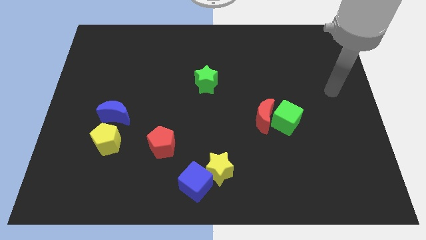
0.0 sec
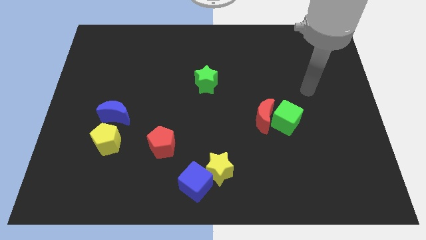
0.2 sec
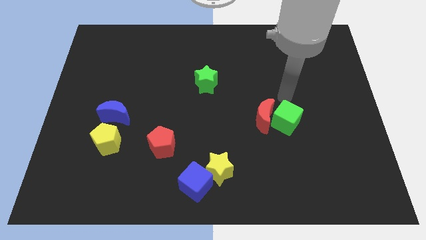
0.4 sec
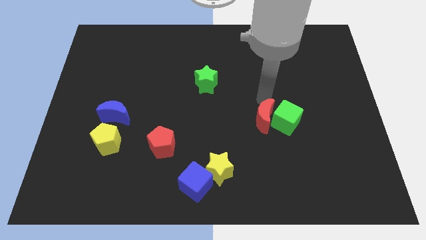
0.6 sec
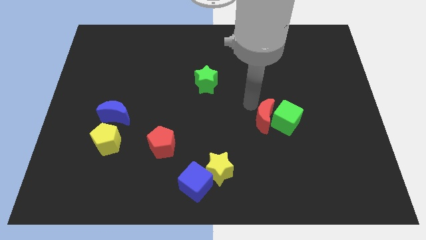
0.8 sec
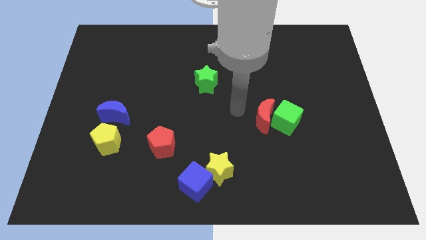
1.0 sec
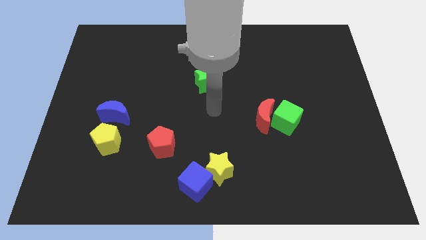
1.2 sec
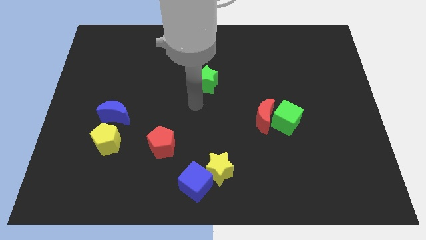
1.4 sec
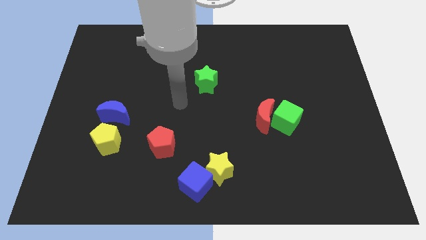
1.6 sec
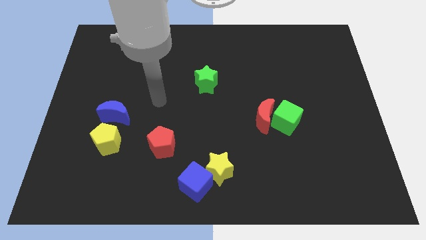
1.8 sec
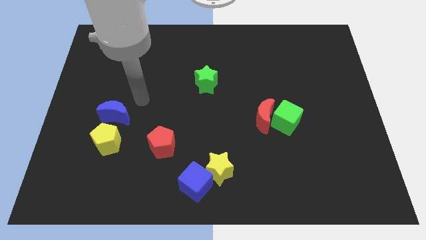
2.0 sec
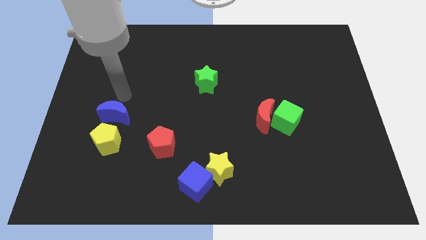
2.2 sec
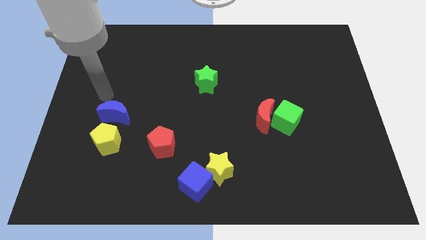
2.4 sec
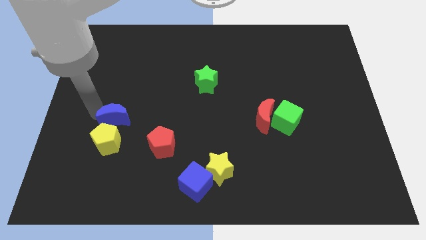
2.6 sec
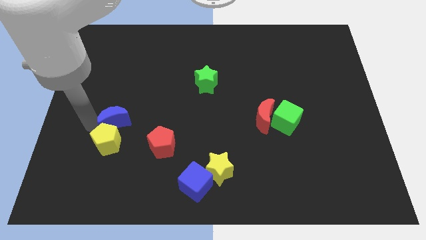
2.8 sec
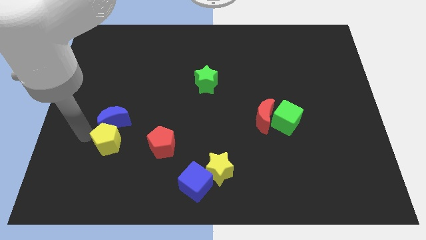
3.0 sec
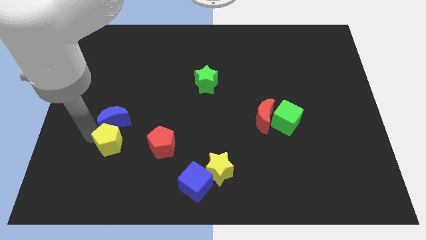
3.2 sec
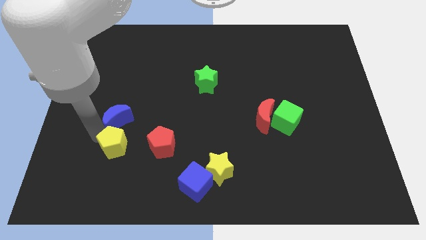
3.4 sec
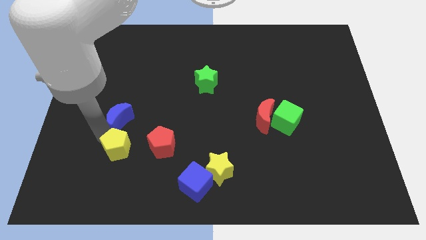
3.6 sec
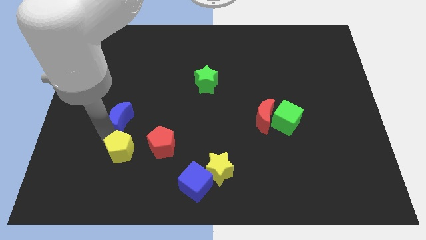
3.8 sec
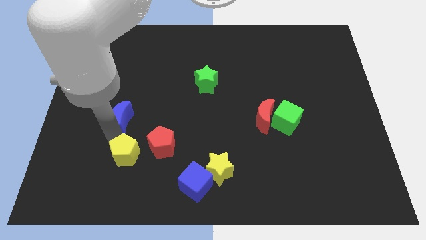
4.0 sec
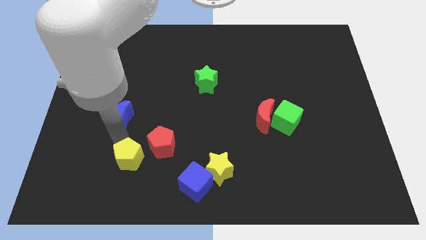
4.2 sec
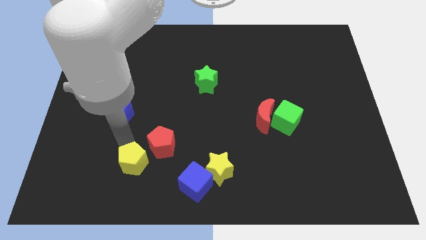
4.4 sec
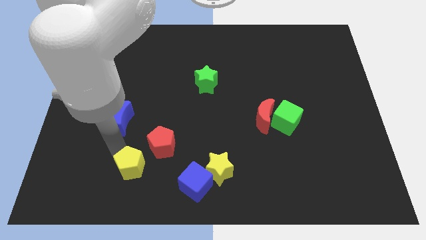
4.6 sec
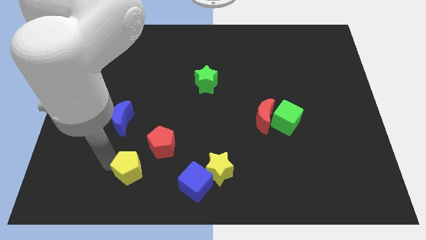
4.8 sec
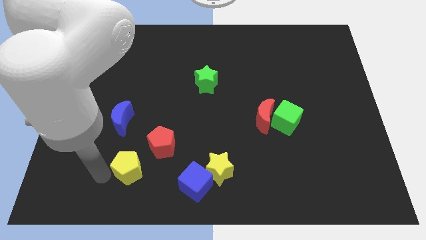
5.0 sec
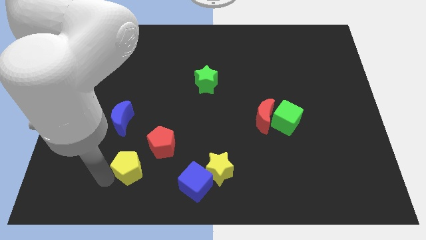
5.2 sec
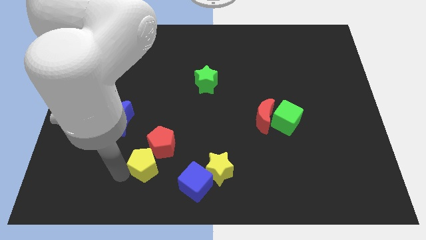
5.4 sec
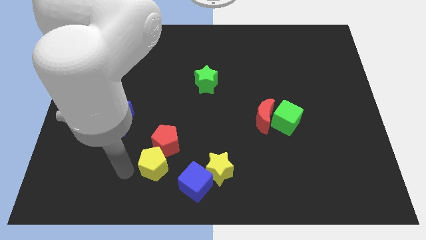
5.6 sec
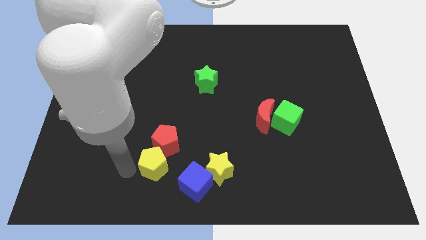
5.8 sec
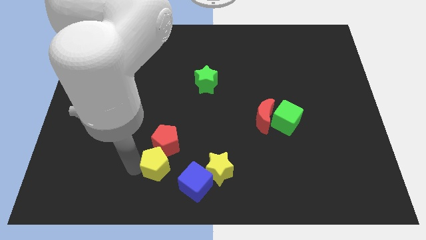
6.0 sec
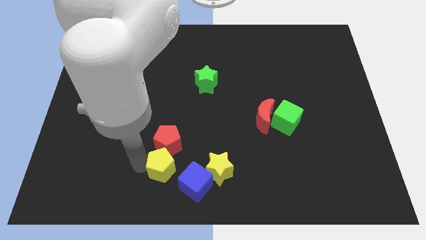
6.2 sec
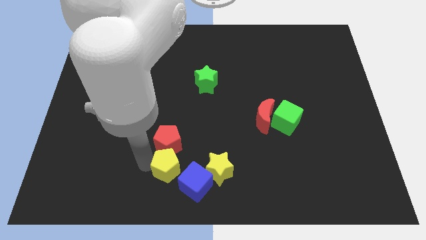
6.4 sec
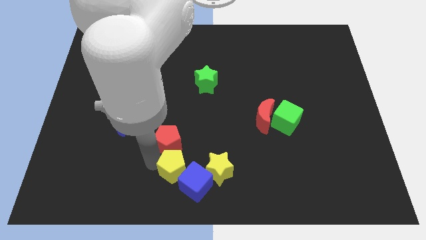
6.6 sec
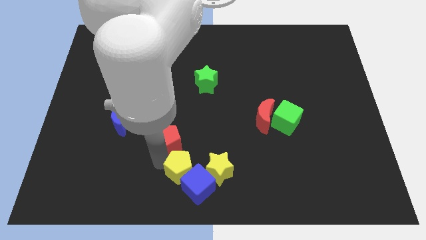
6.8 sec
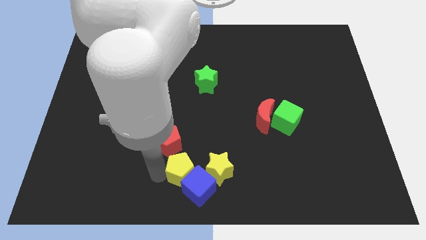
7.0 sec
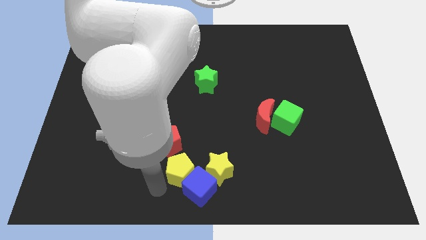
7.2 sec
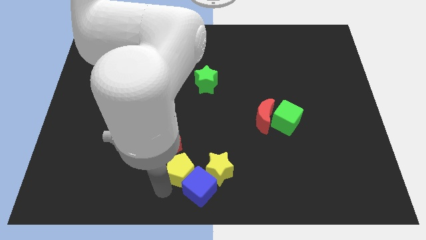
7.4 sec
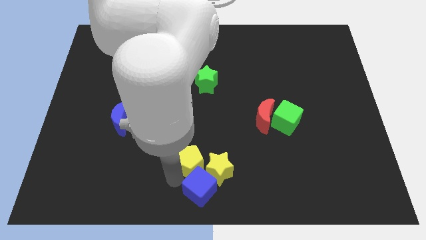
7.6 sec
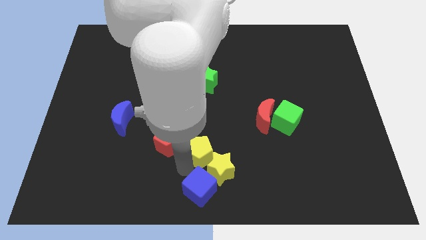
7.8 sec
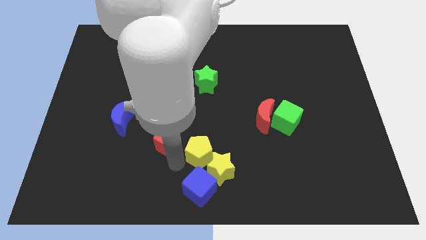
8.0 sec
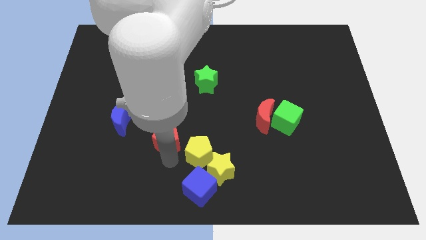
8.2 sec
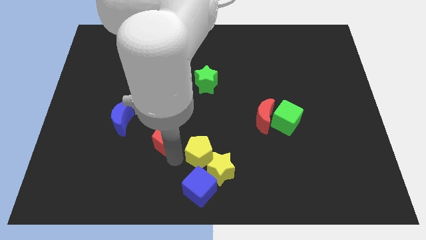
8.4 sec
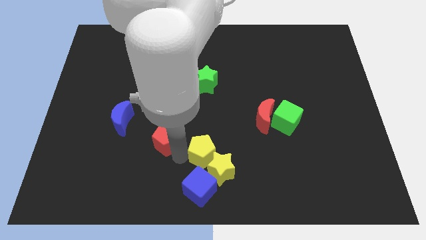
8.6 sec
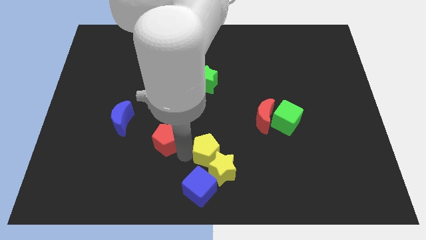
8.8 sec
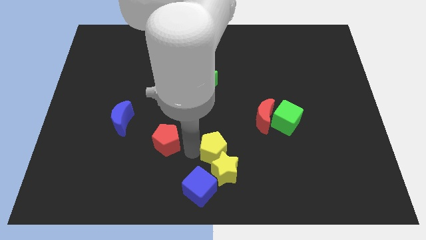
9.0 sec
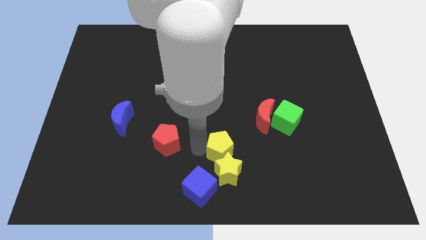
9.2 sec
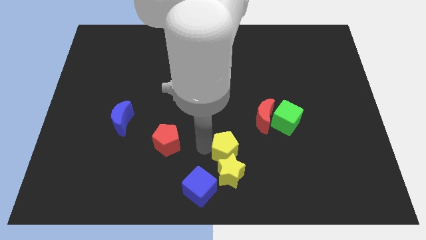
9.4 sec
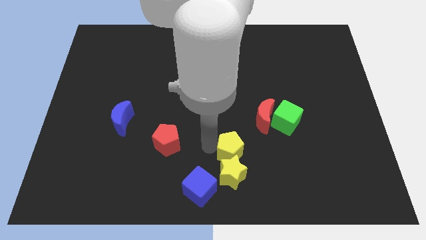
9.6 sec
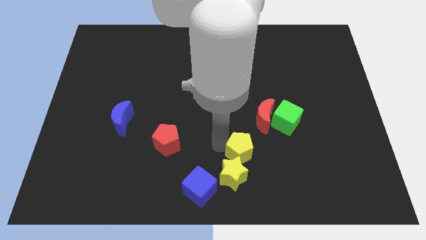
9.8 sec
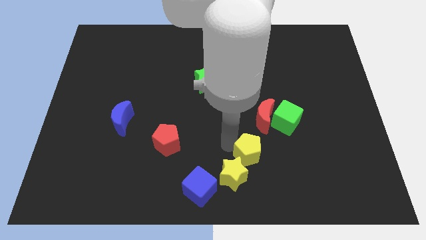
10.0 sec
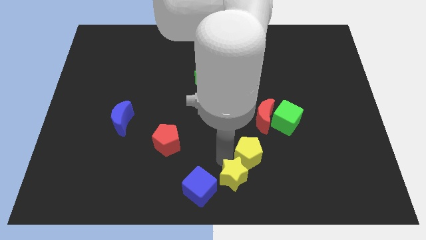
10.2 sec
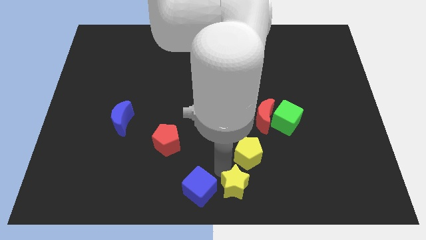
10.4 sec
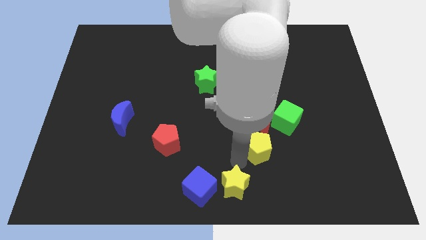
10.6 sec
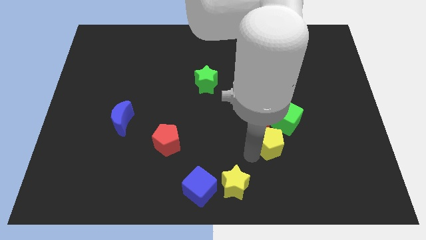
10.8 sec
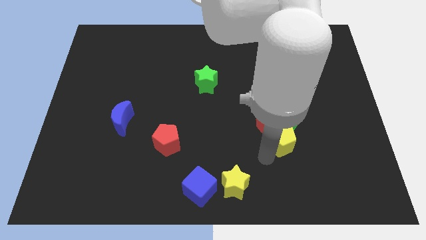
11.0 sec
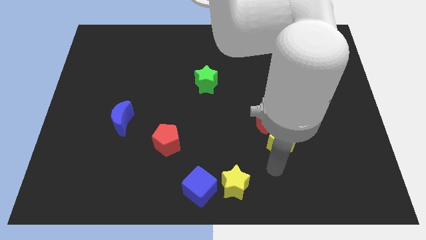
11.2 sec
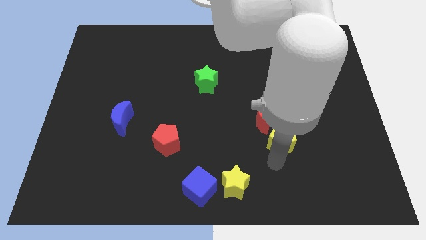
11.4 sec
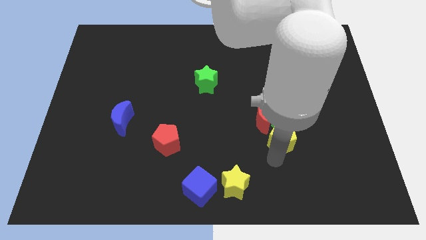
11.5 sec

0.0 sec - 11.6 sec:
push the yellow pentagon to the green cube

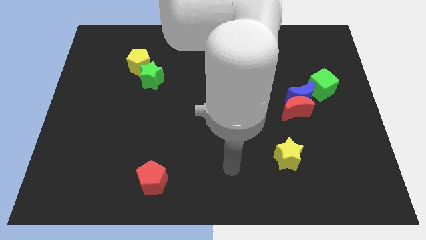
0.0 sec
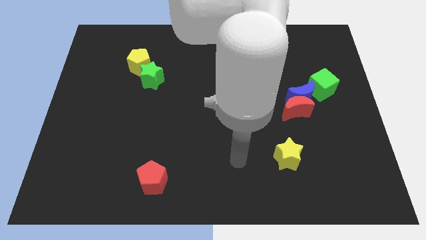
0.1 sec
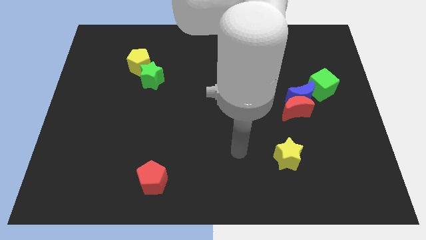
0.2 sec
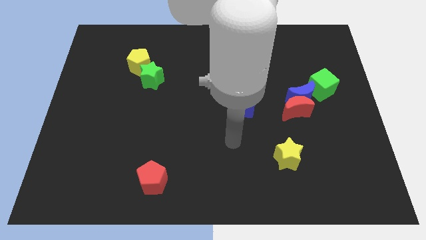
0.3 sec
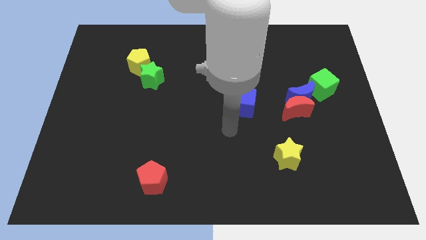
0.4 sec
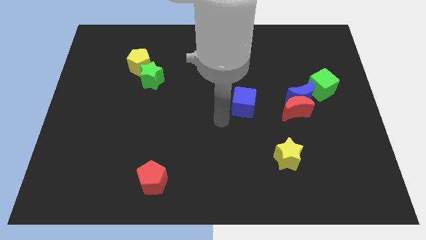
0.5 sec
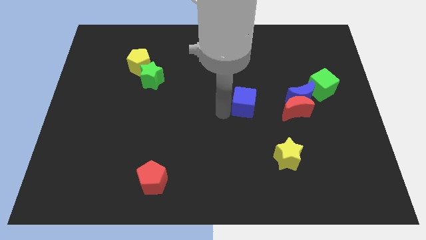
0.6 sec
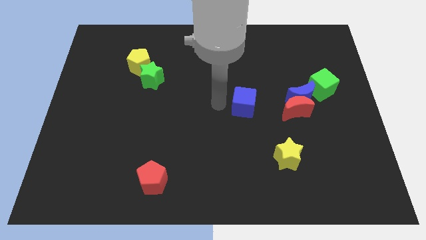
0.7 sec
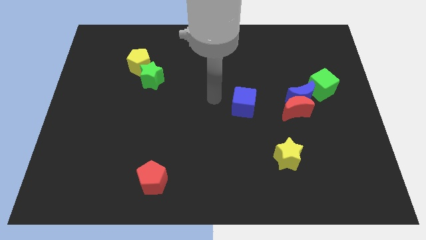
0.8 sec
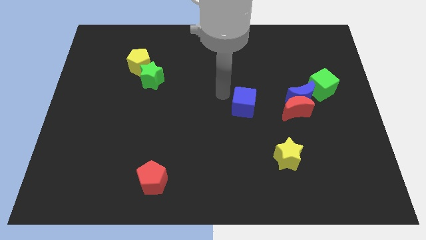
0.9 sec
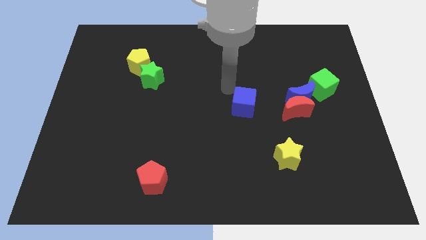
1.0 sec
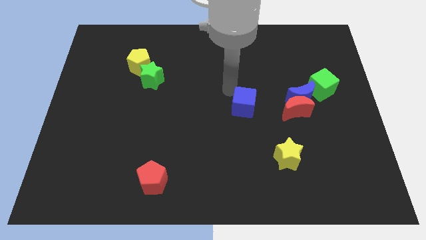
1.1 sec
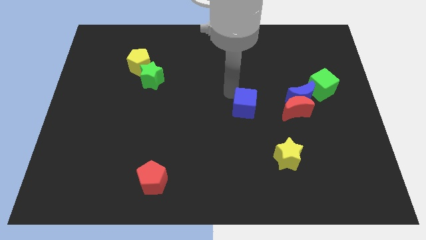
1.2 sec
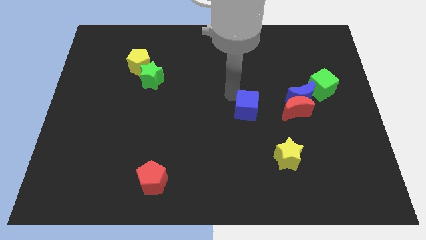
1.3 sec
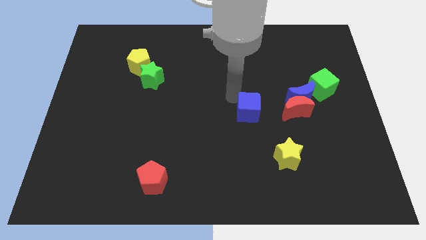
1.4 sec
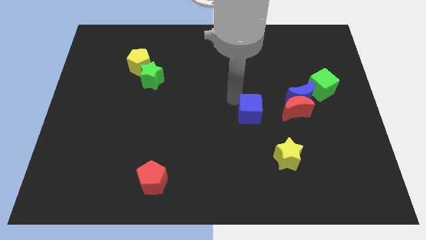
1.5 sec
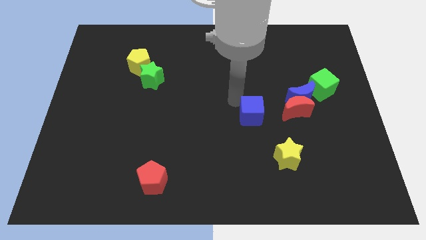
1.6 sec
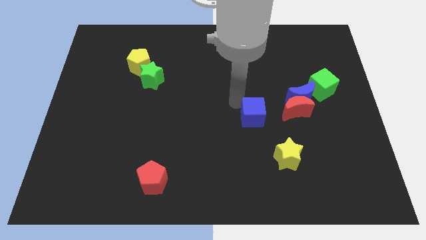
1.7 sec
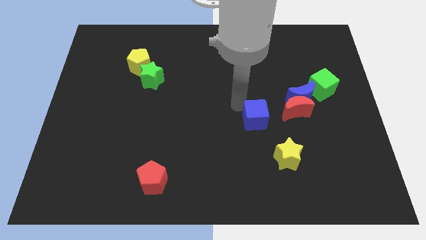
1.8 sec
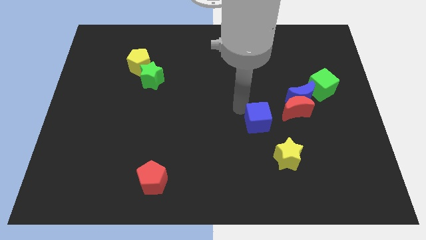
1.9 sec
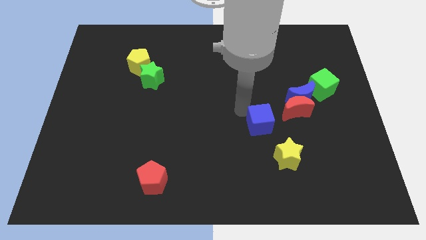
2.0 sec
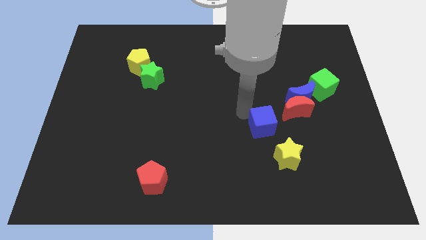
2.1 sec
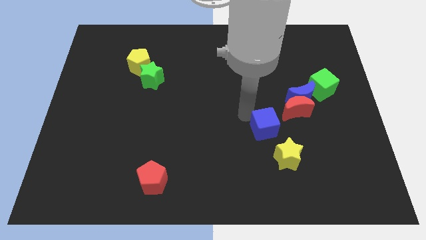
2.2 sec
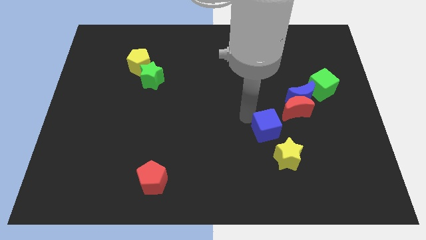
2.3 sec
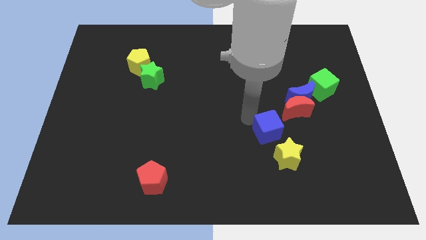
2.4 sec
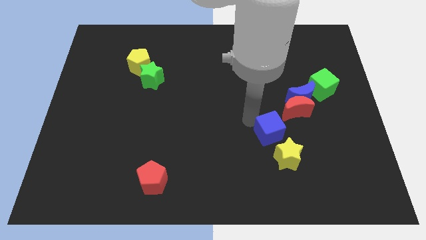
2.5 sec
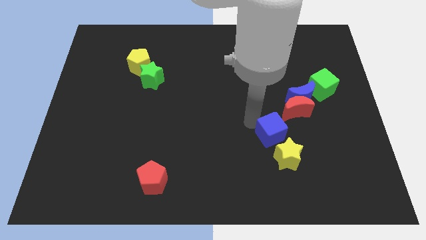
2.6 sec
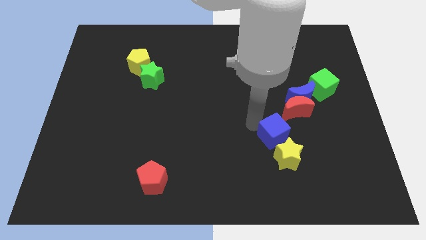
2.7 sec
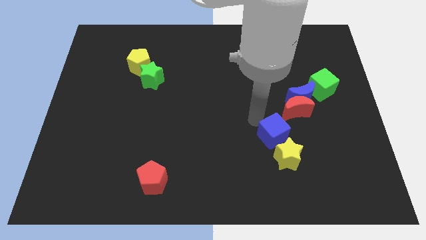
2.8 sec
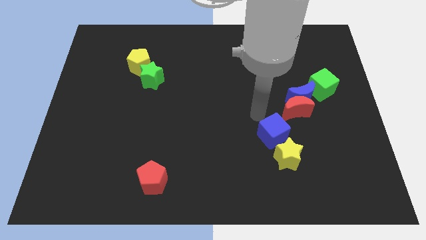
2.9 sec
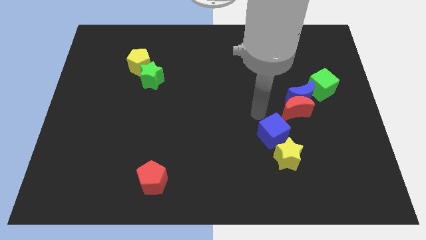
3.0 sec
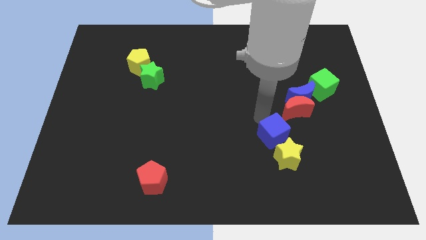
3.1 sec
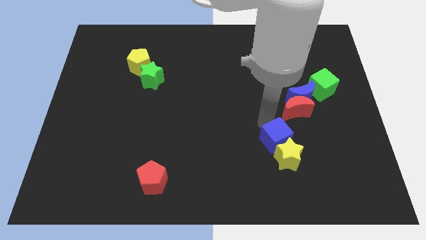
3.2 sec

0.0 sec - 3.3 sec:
put the blue cube close to the yellow star
